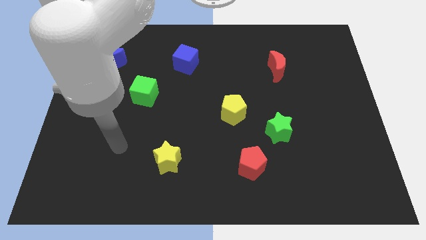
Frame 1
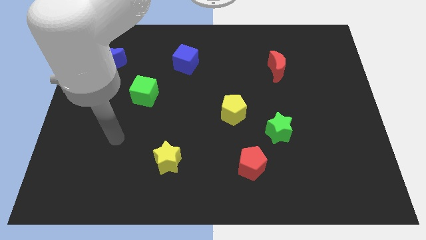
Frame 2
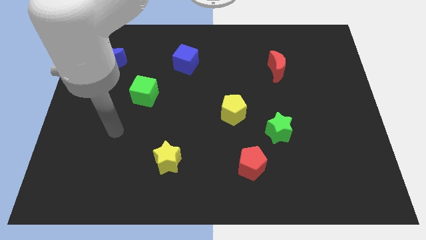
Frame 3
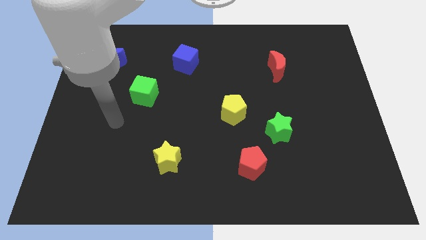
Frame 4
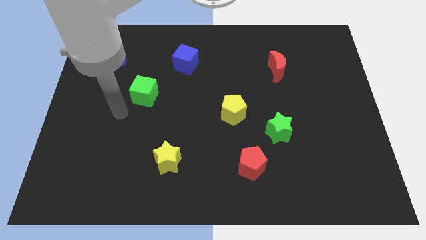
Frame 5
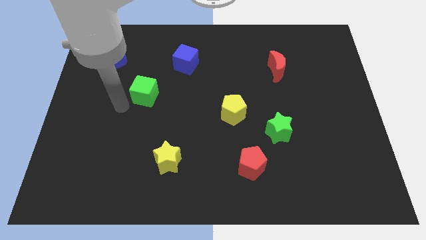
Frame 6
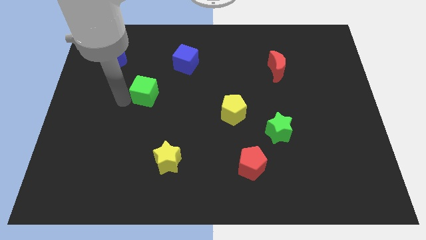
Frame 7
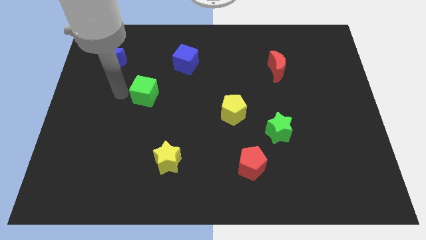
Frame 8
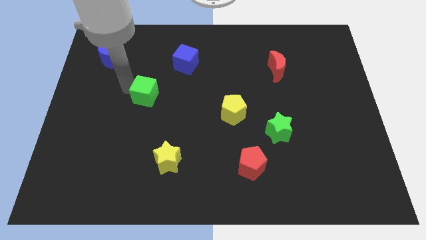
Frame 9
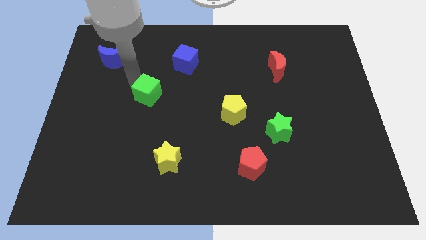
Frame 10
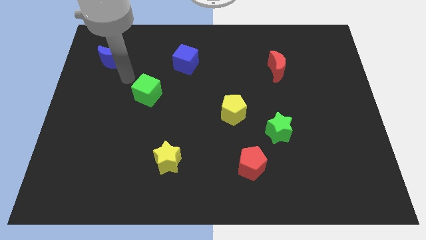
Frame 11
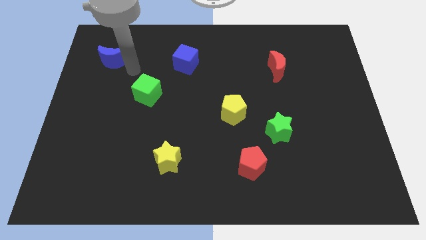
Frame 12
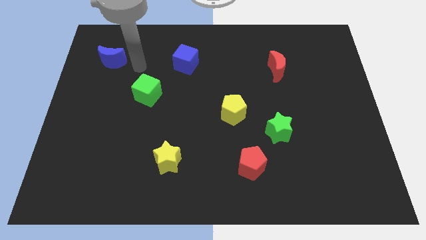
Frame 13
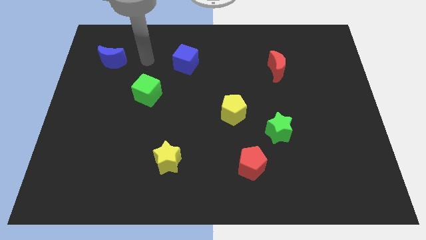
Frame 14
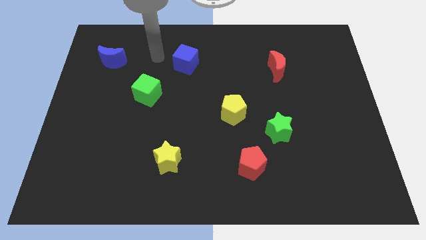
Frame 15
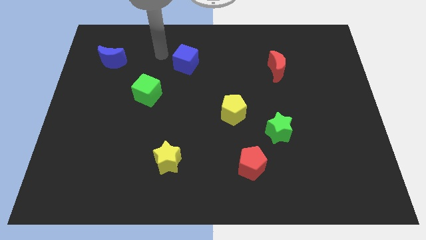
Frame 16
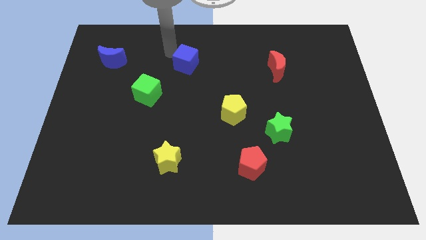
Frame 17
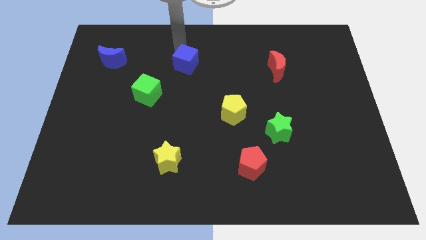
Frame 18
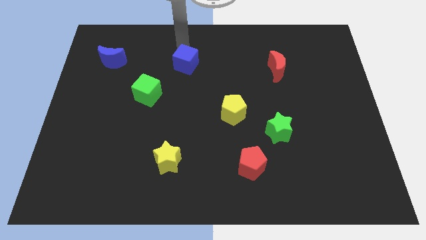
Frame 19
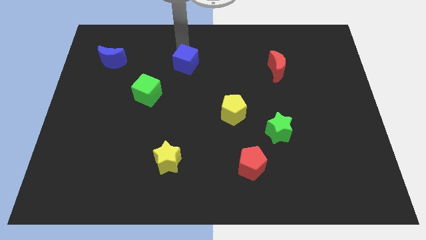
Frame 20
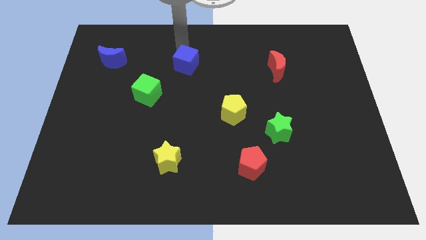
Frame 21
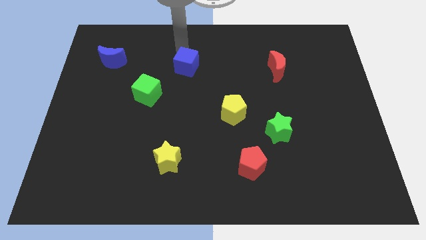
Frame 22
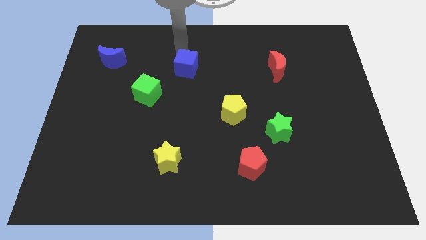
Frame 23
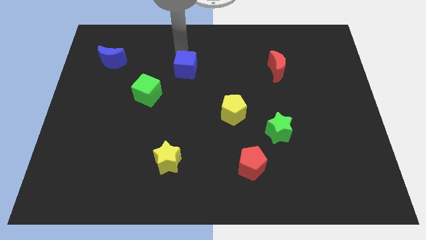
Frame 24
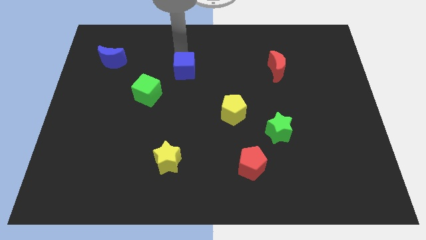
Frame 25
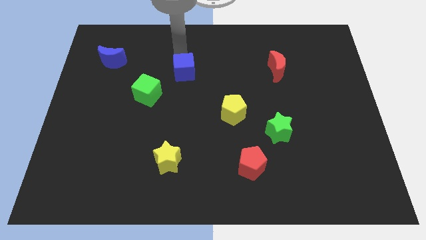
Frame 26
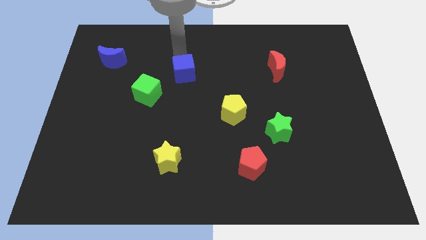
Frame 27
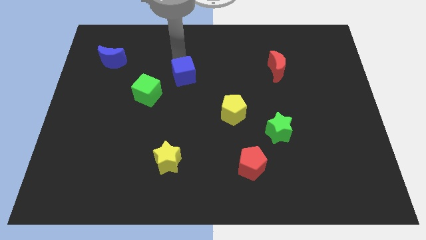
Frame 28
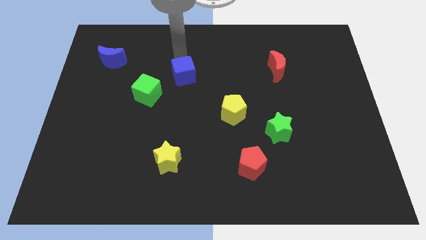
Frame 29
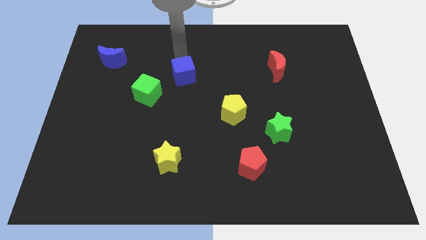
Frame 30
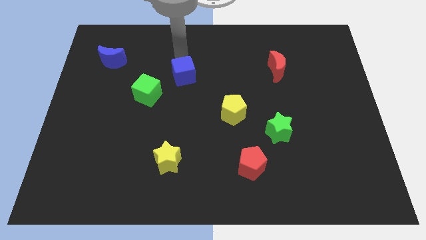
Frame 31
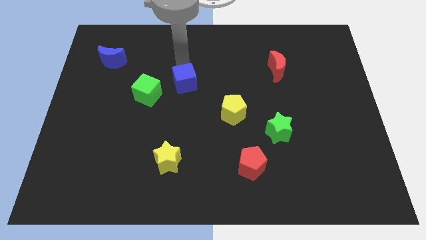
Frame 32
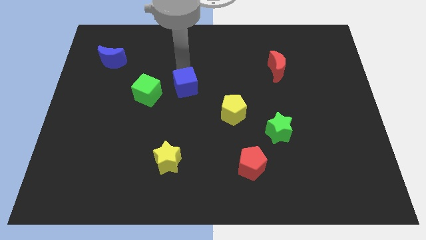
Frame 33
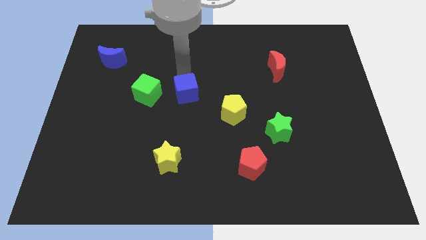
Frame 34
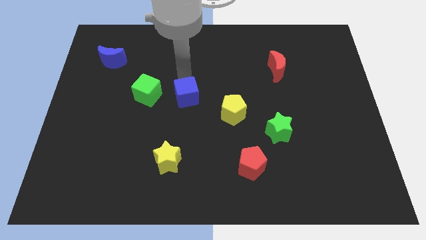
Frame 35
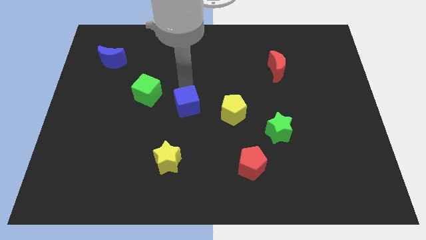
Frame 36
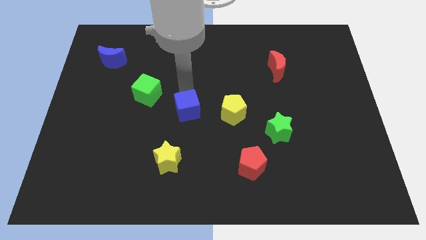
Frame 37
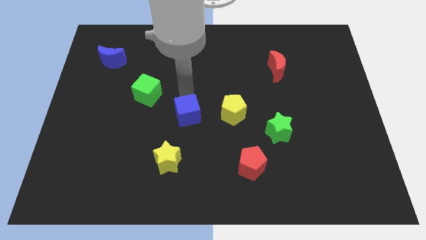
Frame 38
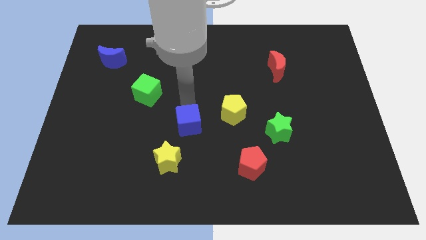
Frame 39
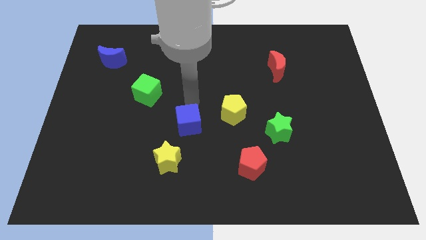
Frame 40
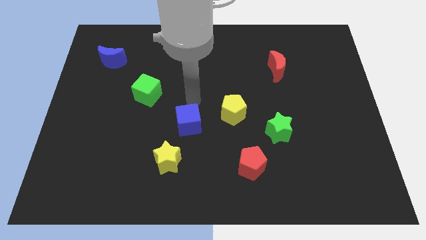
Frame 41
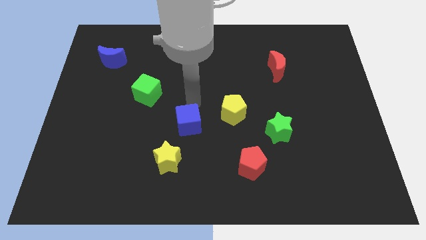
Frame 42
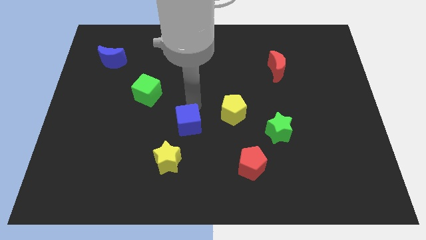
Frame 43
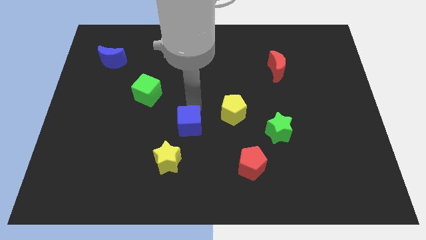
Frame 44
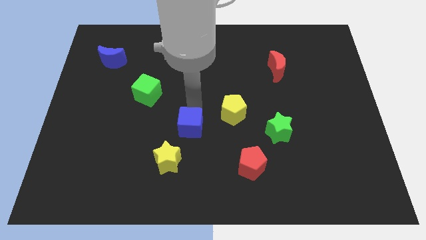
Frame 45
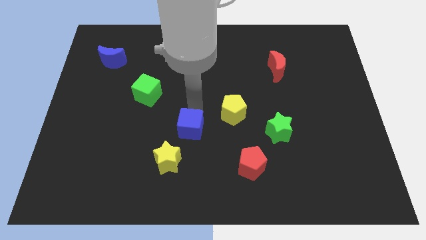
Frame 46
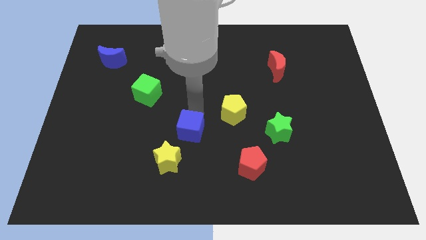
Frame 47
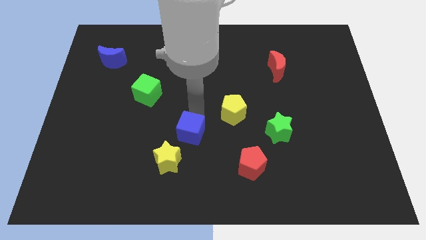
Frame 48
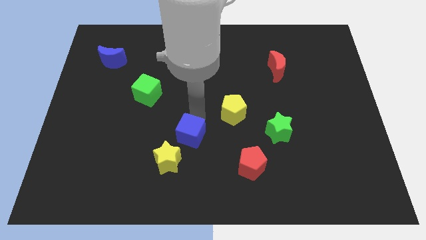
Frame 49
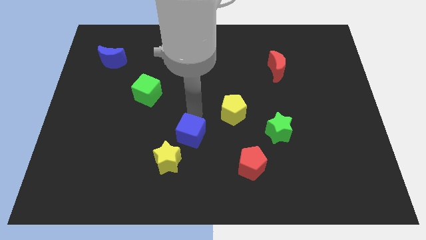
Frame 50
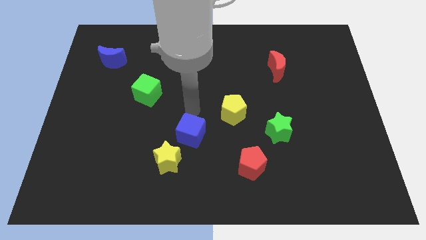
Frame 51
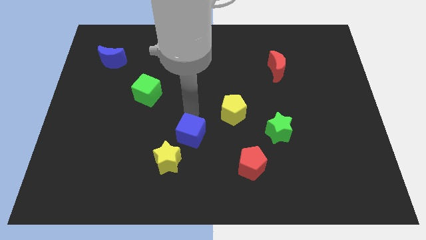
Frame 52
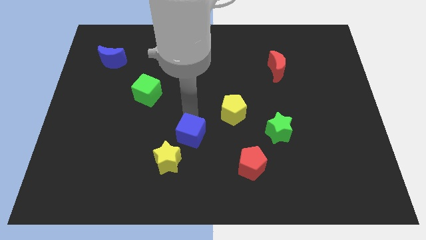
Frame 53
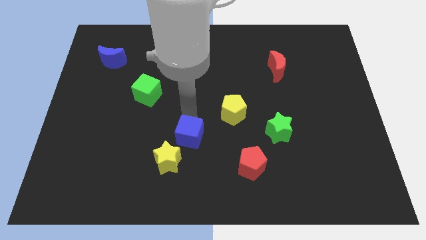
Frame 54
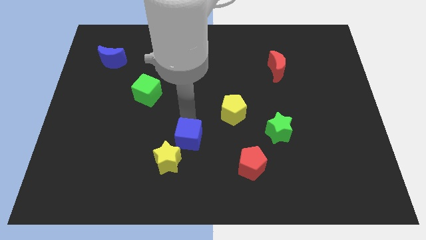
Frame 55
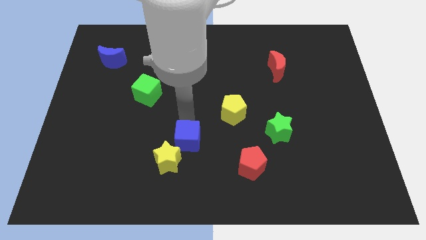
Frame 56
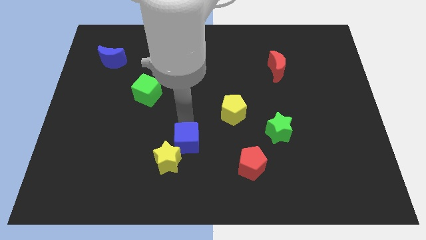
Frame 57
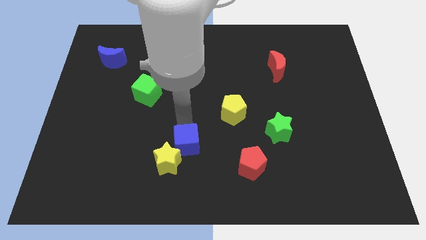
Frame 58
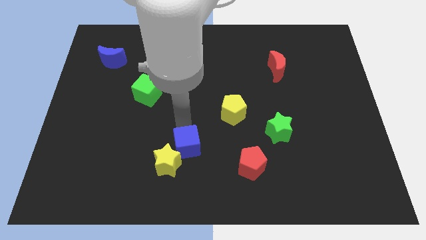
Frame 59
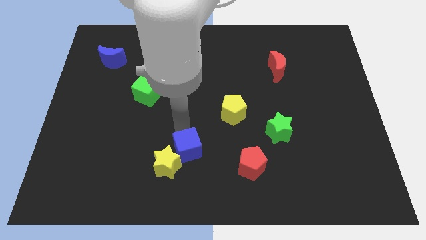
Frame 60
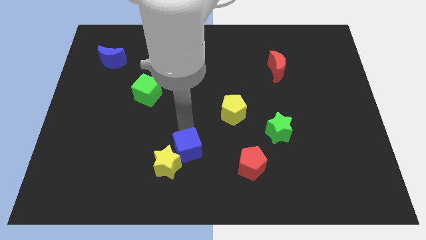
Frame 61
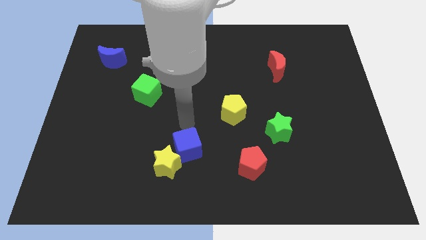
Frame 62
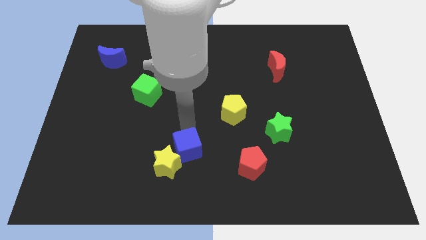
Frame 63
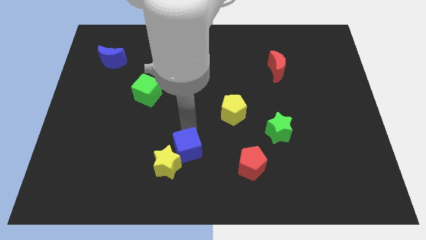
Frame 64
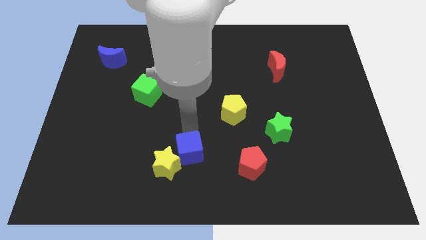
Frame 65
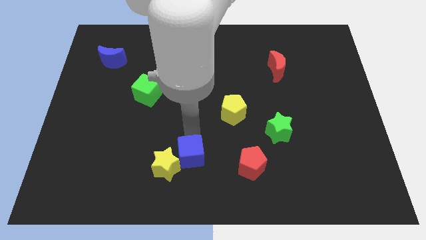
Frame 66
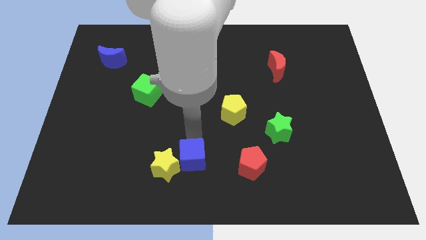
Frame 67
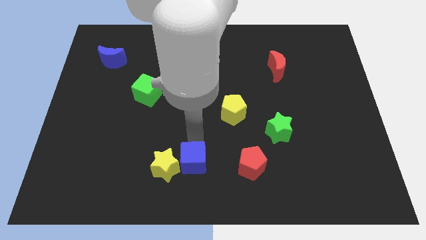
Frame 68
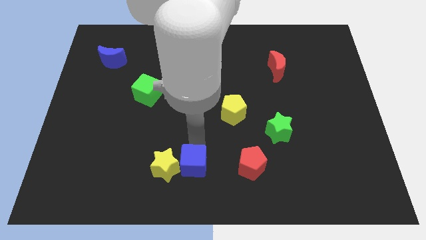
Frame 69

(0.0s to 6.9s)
put the blue cube to the bottom right of the yellow star
